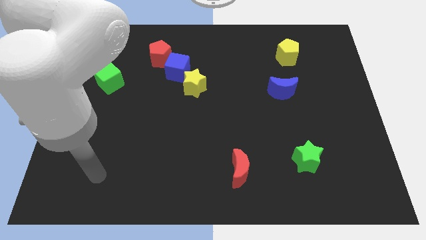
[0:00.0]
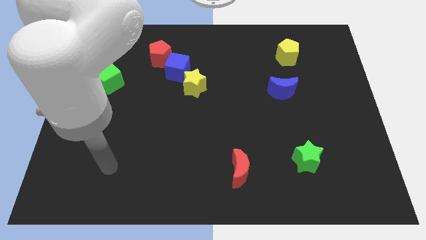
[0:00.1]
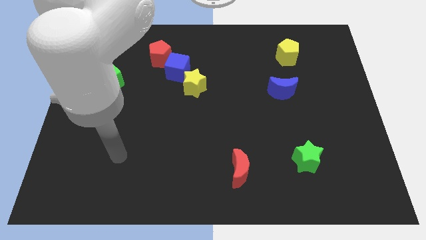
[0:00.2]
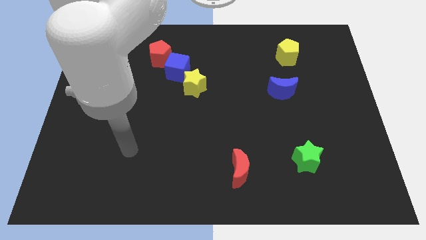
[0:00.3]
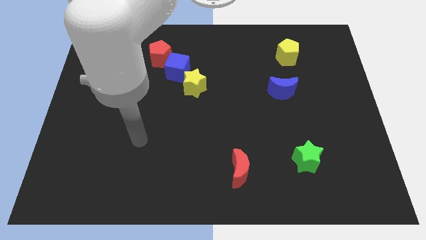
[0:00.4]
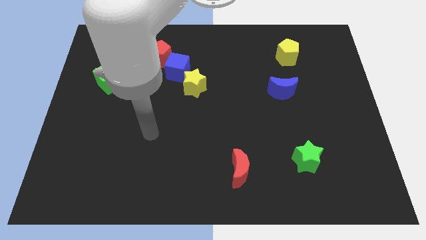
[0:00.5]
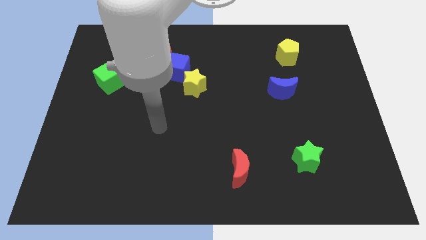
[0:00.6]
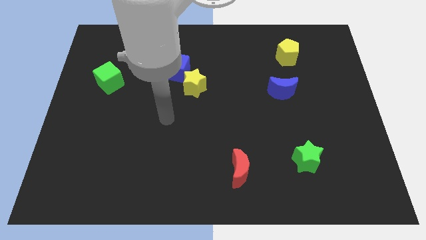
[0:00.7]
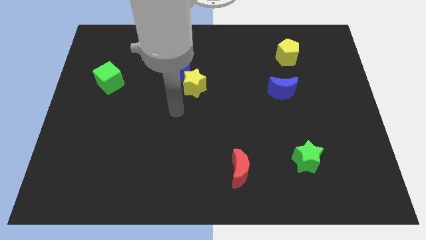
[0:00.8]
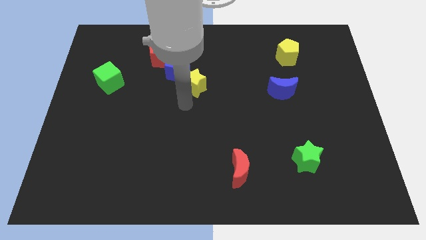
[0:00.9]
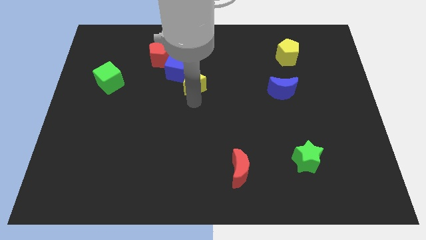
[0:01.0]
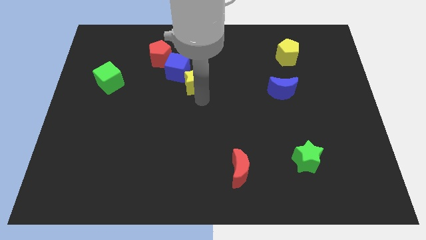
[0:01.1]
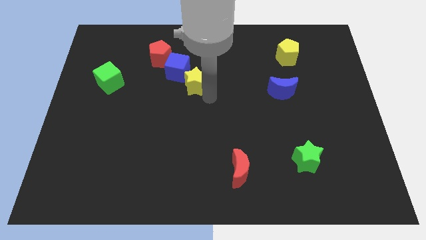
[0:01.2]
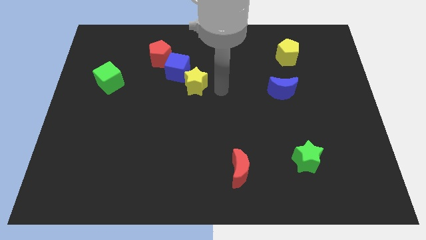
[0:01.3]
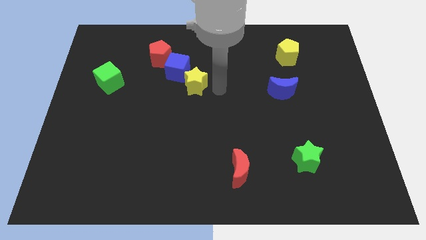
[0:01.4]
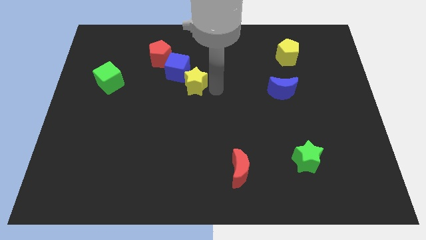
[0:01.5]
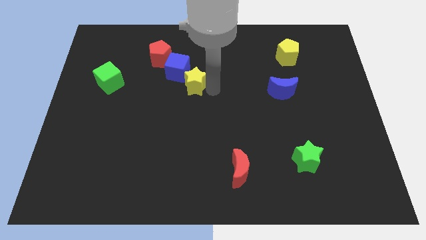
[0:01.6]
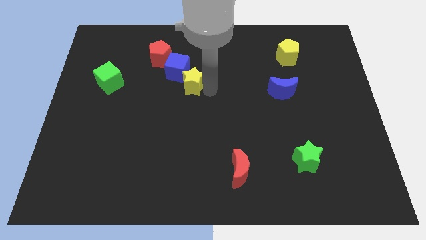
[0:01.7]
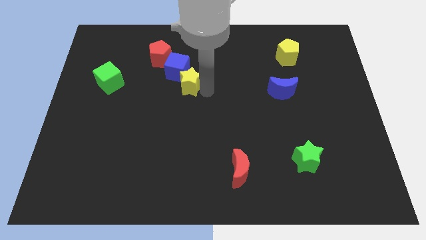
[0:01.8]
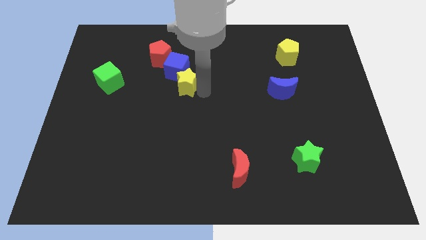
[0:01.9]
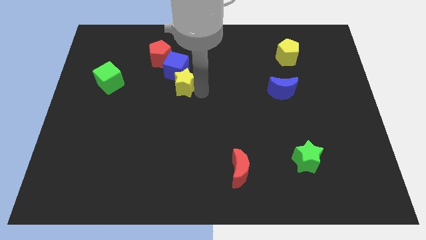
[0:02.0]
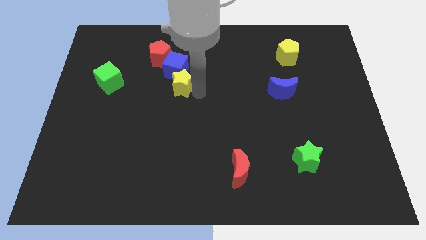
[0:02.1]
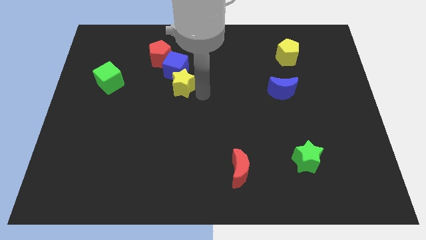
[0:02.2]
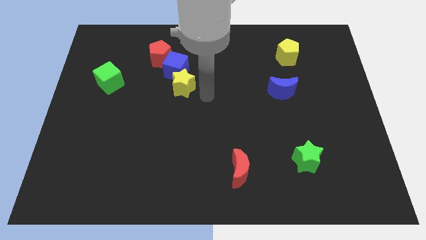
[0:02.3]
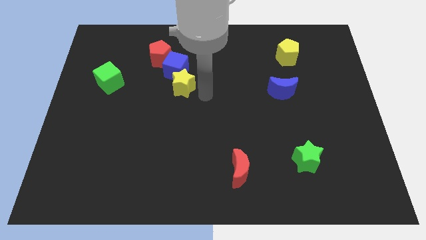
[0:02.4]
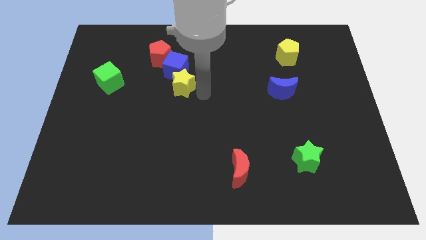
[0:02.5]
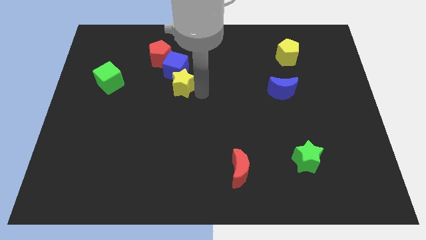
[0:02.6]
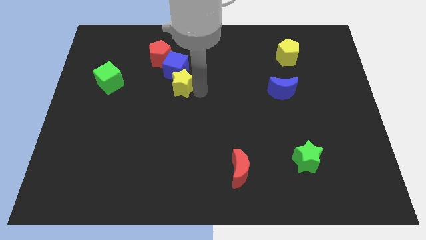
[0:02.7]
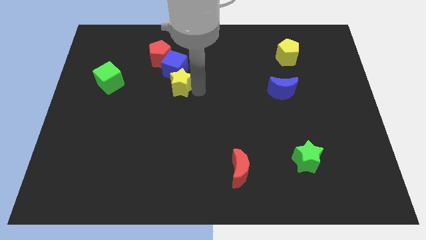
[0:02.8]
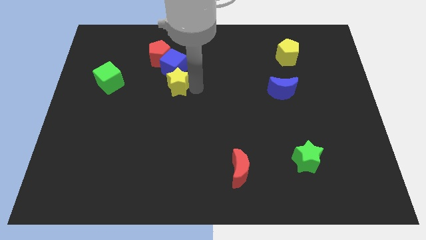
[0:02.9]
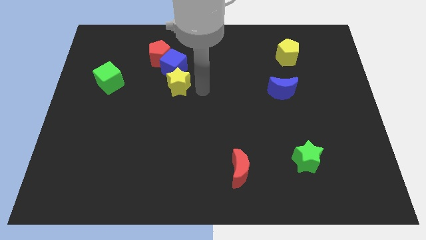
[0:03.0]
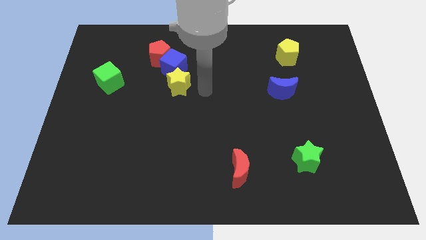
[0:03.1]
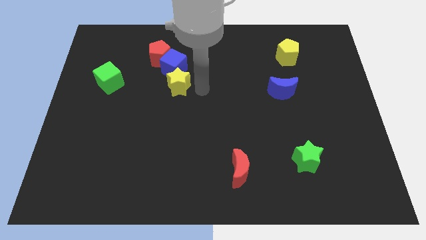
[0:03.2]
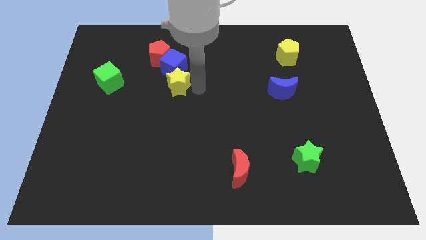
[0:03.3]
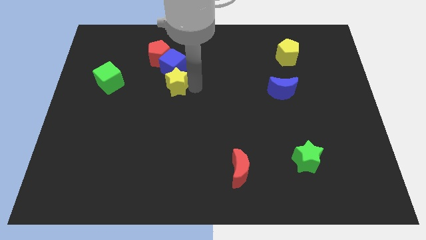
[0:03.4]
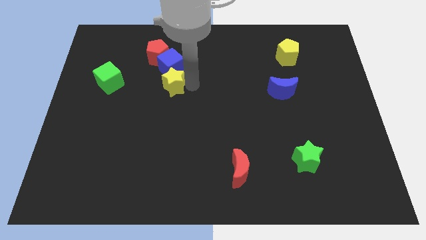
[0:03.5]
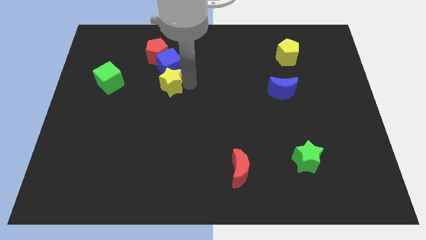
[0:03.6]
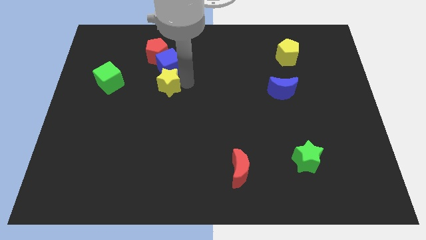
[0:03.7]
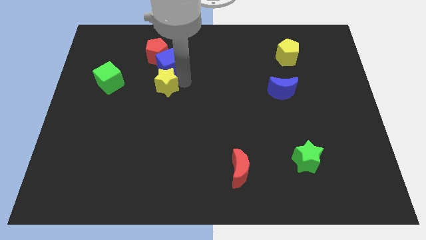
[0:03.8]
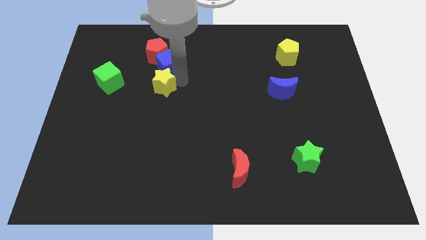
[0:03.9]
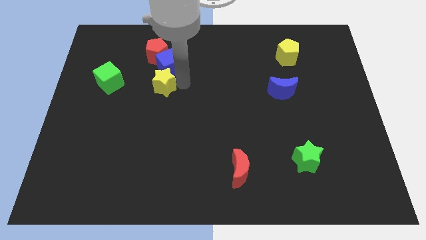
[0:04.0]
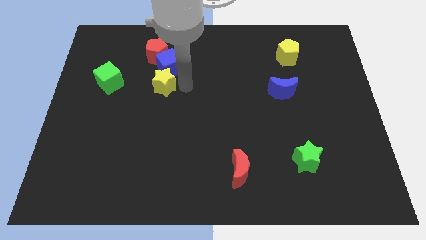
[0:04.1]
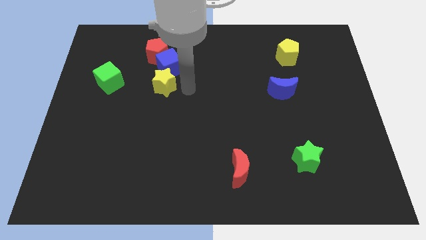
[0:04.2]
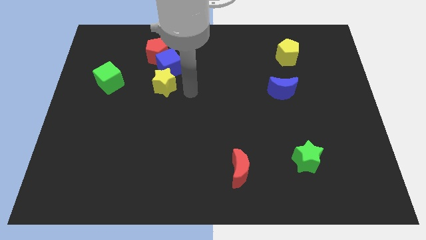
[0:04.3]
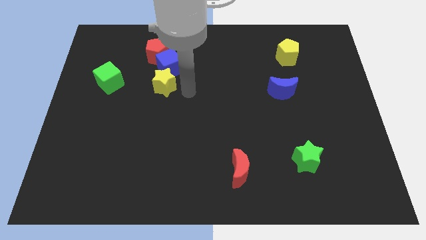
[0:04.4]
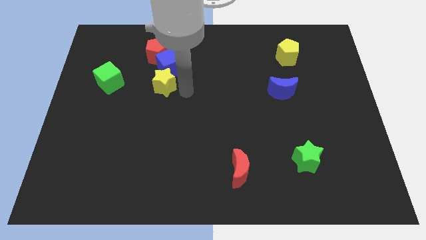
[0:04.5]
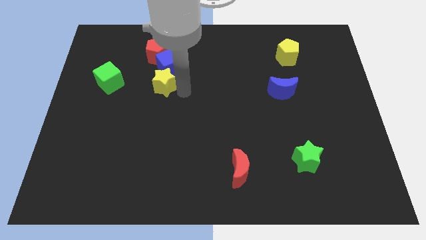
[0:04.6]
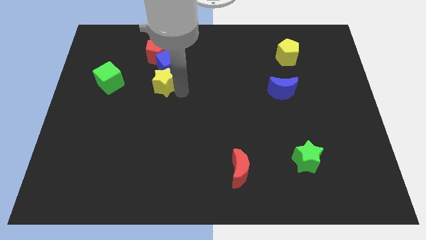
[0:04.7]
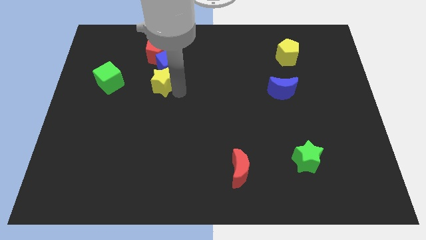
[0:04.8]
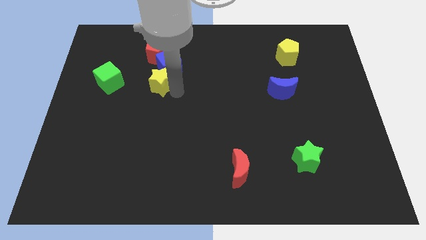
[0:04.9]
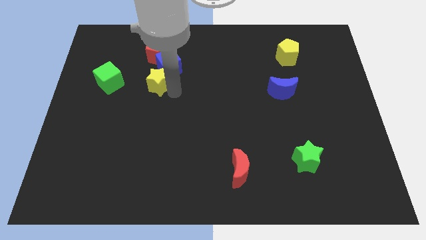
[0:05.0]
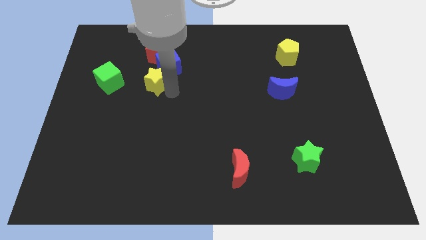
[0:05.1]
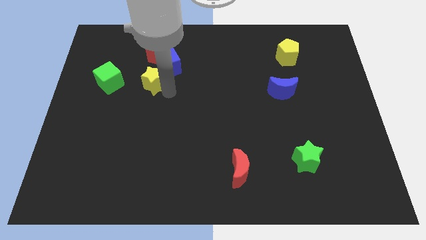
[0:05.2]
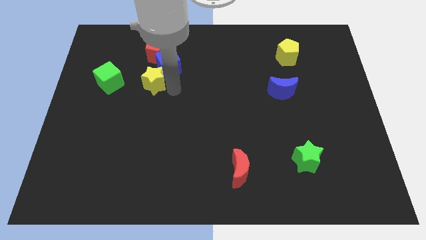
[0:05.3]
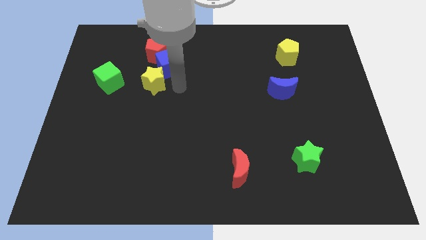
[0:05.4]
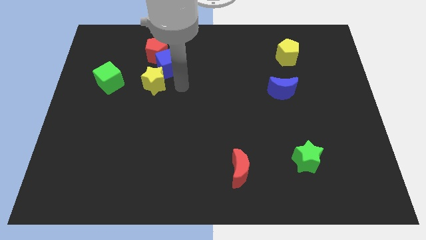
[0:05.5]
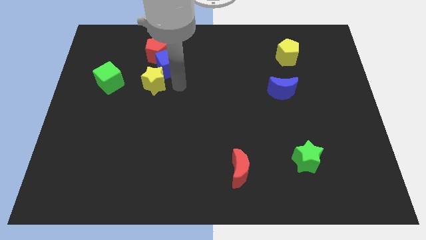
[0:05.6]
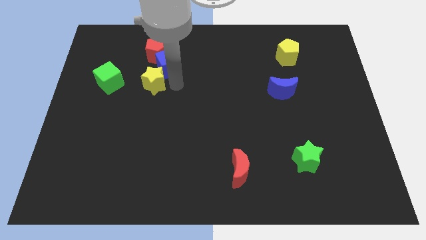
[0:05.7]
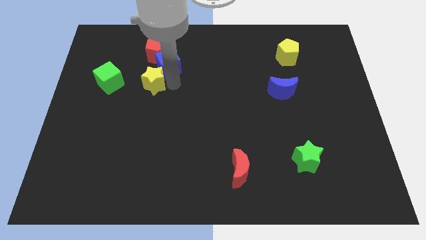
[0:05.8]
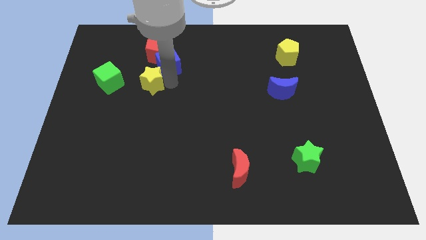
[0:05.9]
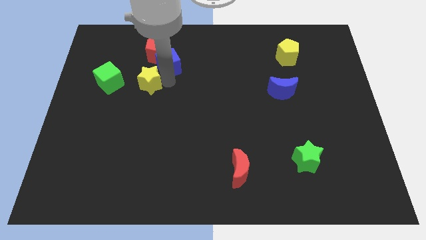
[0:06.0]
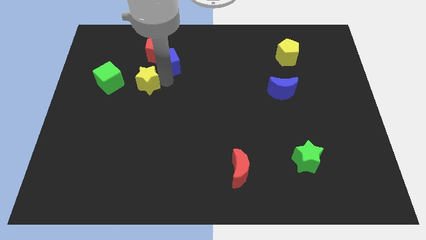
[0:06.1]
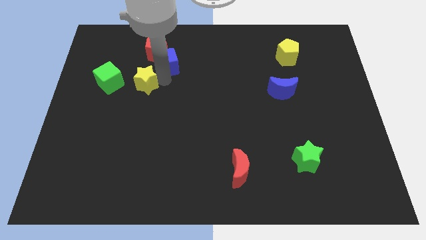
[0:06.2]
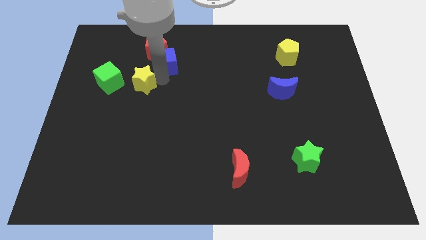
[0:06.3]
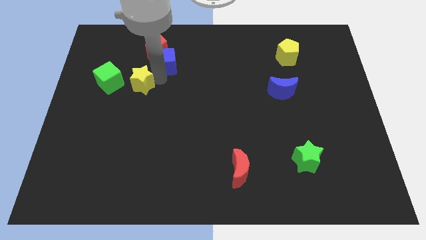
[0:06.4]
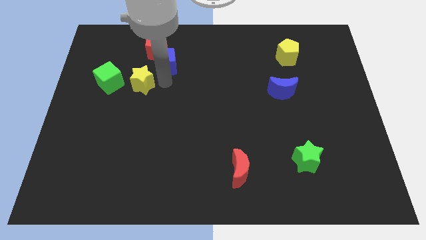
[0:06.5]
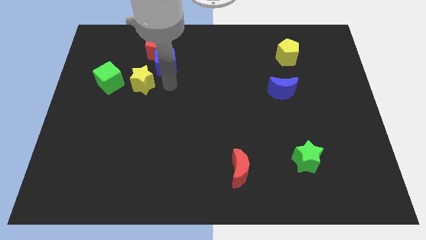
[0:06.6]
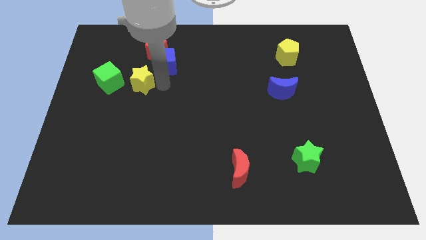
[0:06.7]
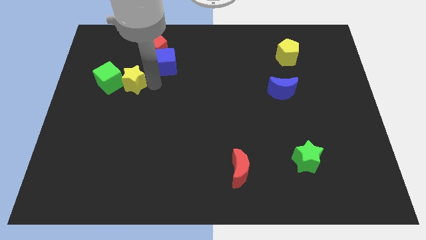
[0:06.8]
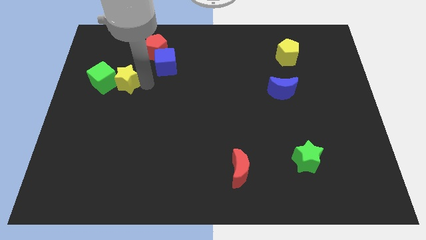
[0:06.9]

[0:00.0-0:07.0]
put the yellow star to the green cube
